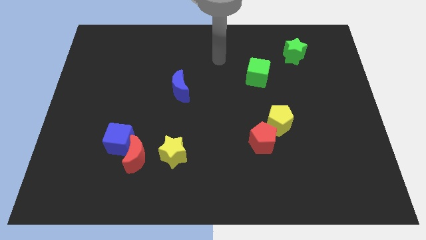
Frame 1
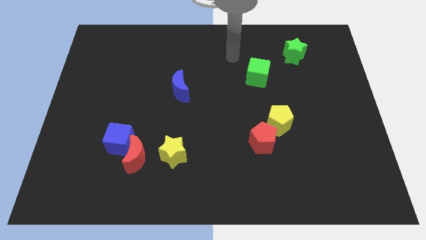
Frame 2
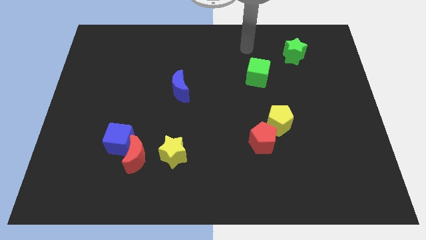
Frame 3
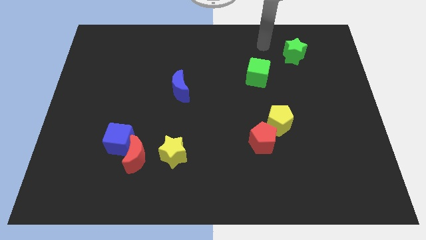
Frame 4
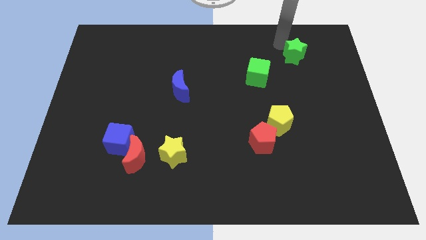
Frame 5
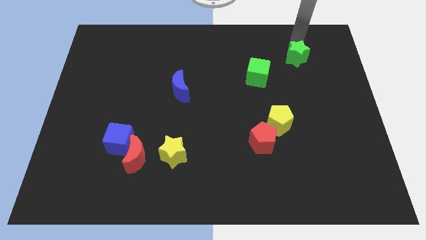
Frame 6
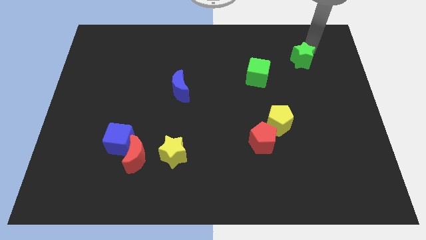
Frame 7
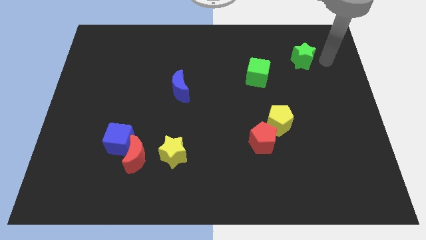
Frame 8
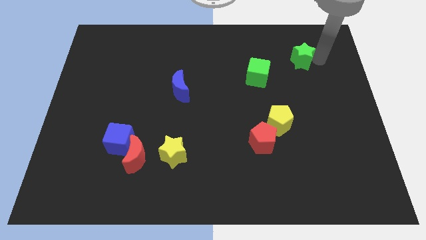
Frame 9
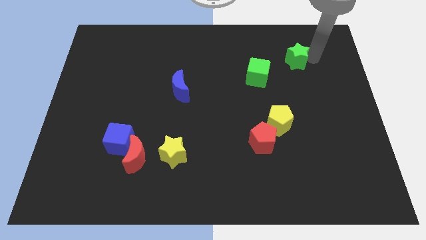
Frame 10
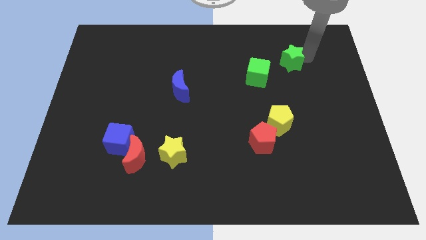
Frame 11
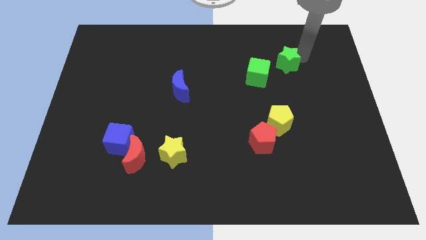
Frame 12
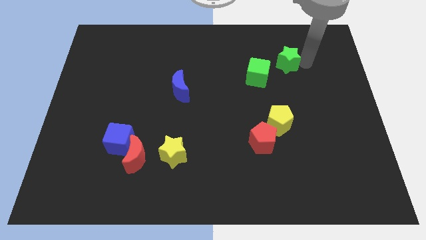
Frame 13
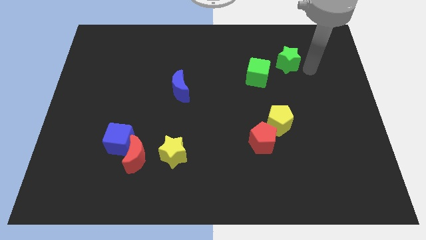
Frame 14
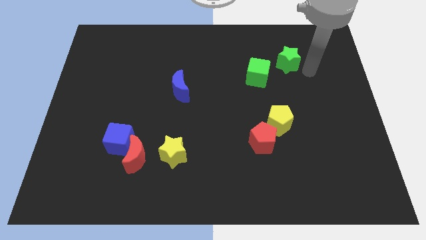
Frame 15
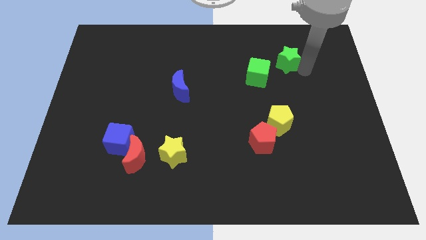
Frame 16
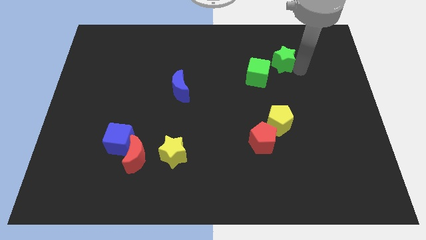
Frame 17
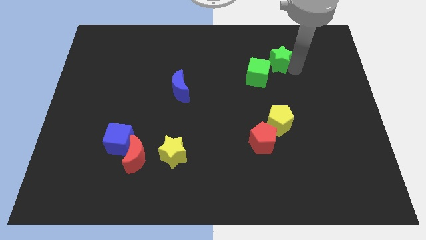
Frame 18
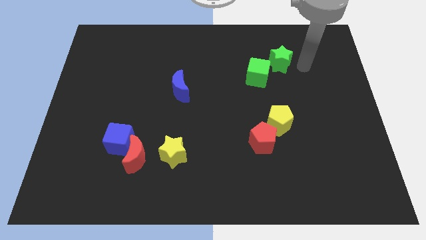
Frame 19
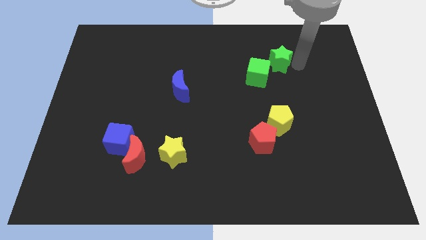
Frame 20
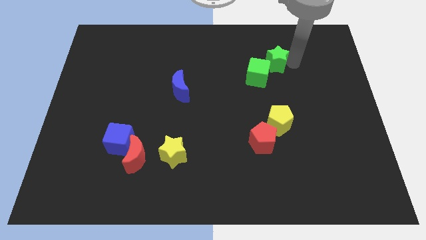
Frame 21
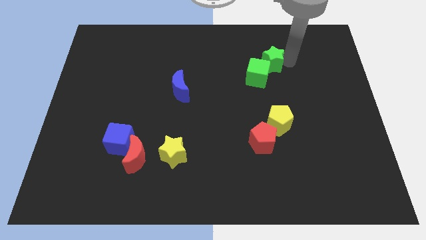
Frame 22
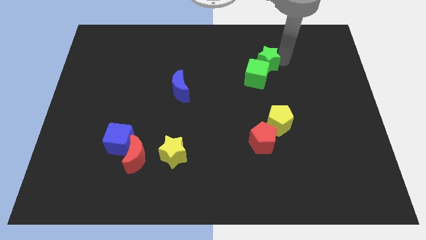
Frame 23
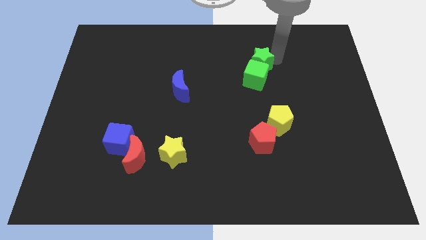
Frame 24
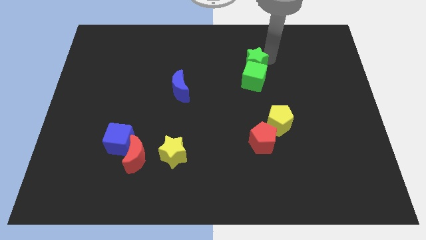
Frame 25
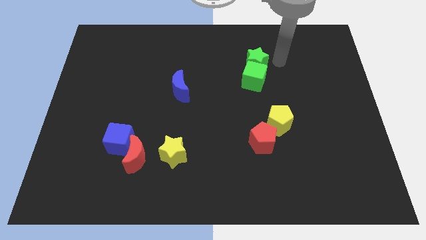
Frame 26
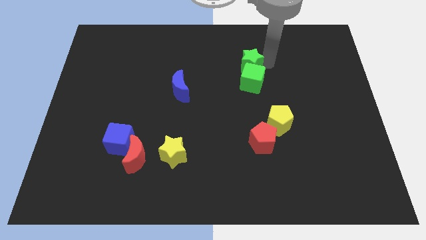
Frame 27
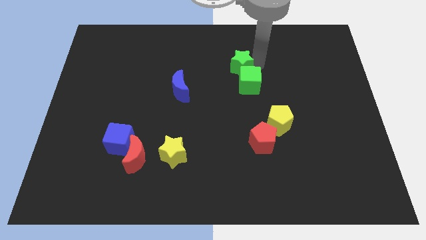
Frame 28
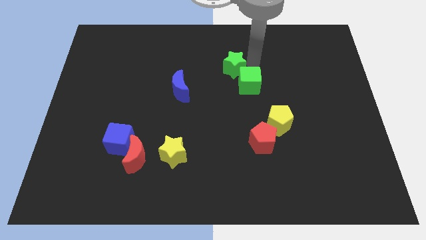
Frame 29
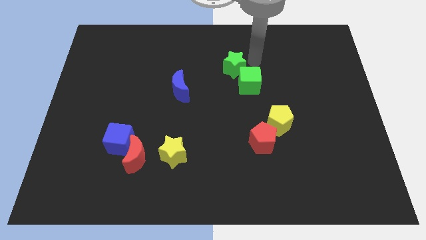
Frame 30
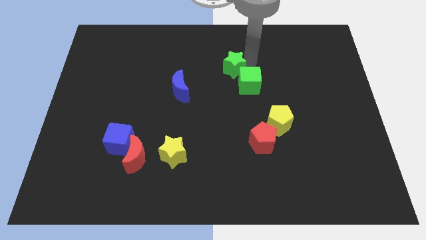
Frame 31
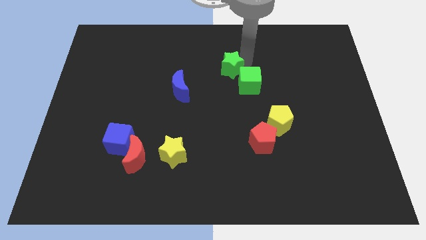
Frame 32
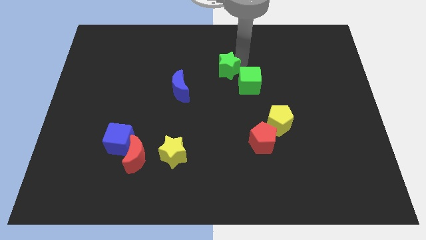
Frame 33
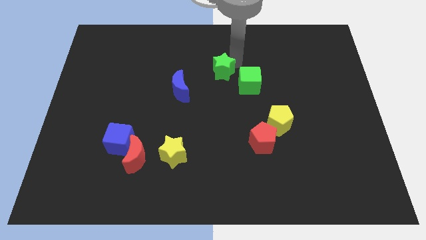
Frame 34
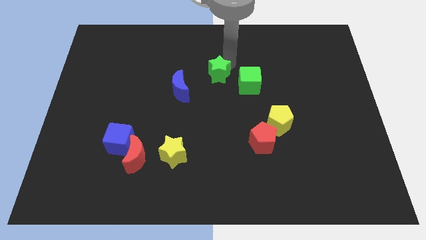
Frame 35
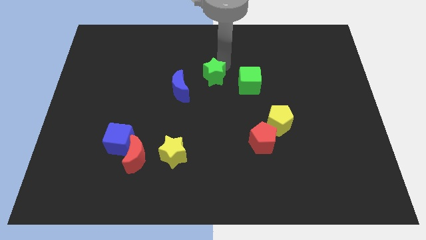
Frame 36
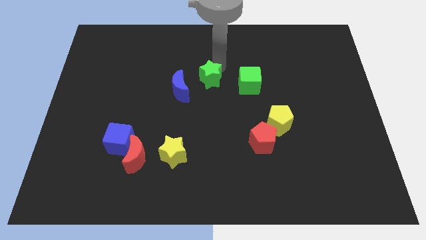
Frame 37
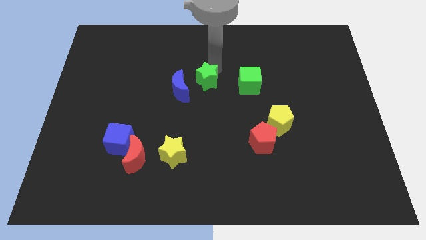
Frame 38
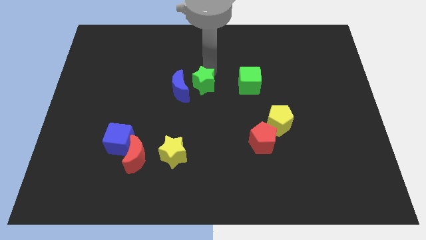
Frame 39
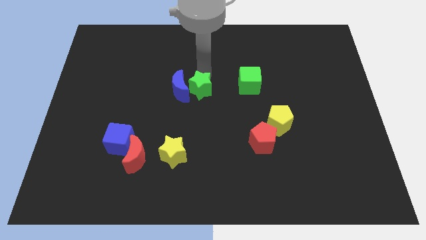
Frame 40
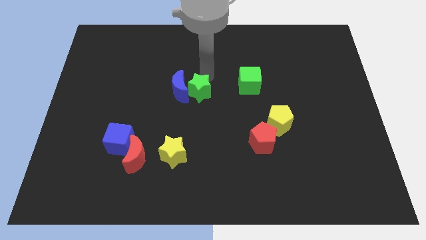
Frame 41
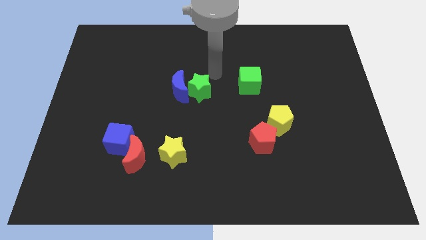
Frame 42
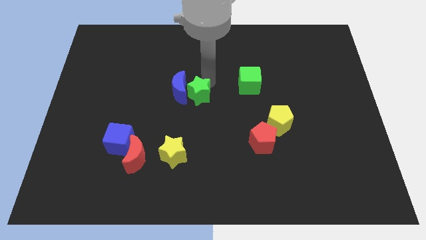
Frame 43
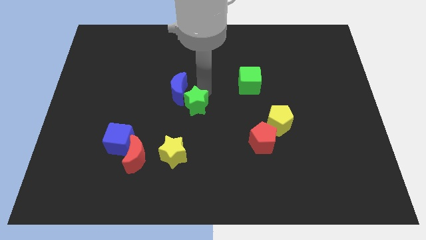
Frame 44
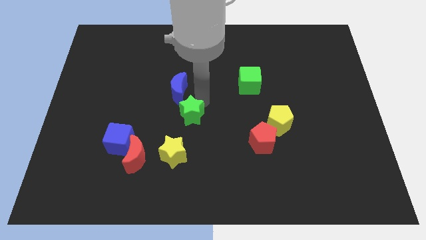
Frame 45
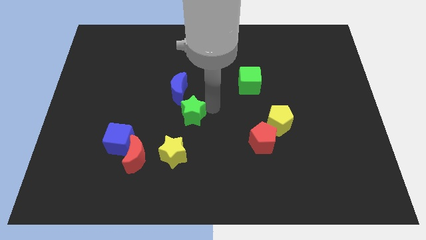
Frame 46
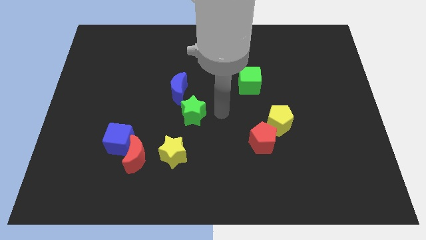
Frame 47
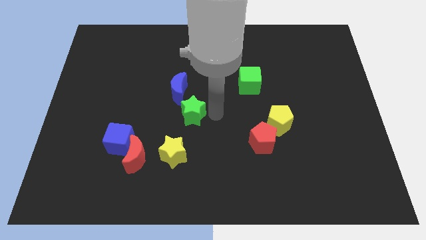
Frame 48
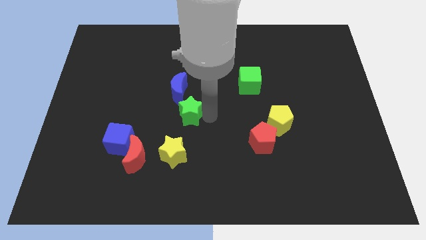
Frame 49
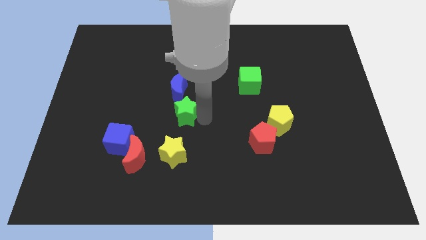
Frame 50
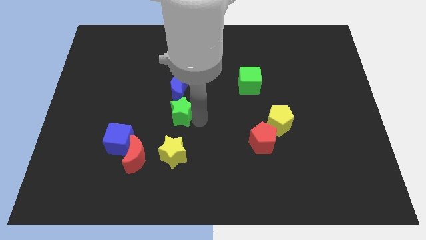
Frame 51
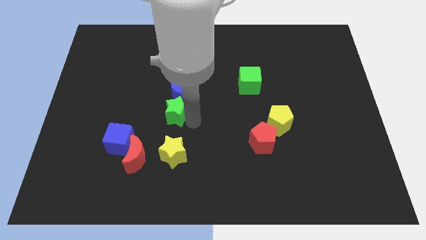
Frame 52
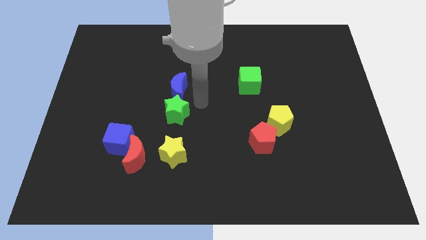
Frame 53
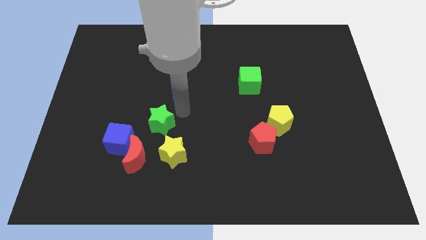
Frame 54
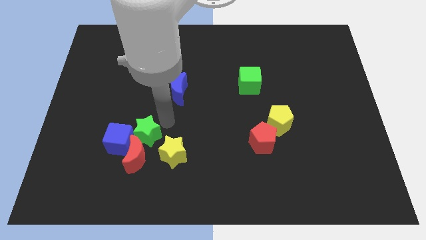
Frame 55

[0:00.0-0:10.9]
move the green star towards the blue cube

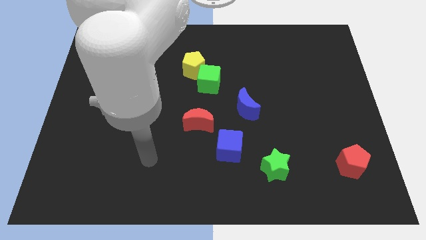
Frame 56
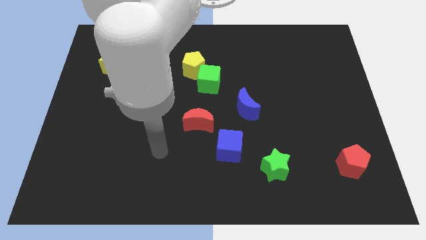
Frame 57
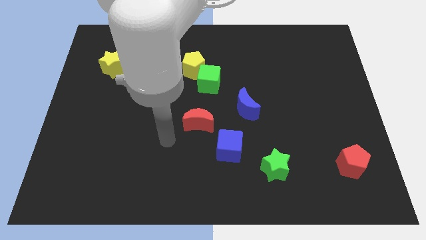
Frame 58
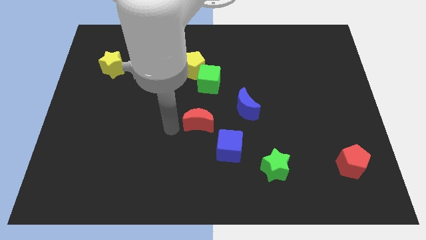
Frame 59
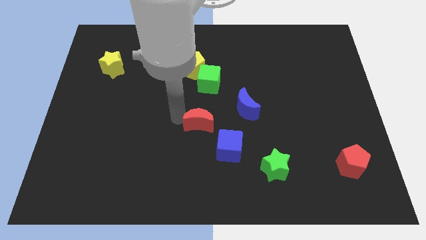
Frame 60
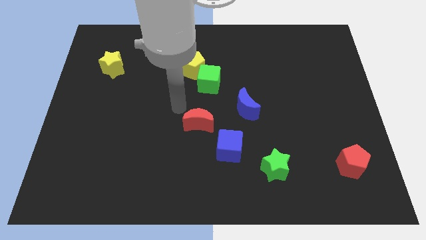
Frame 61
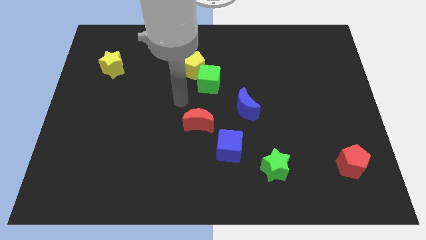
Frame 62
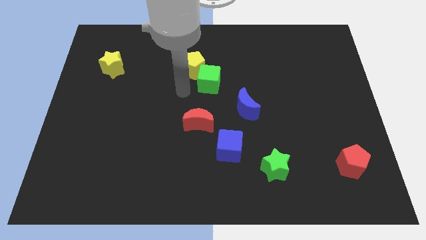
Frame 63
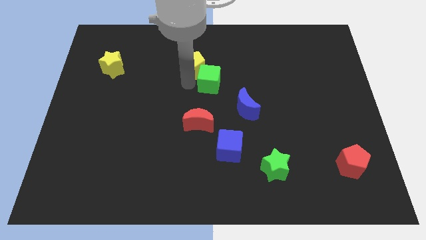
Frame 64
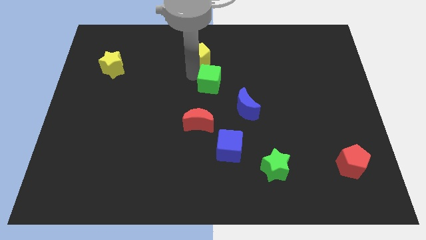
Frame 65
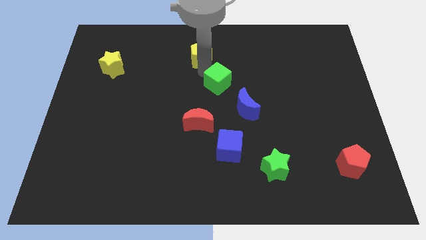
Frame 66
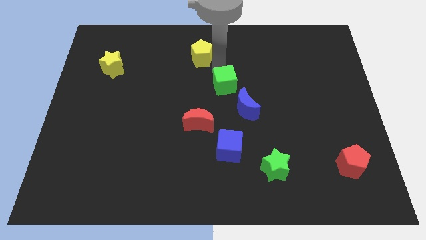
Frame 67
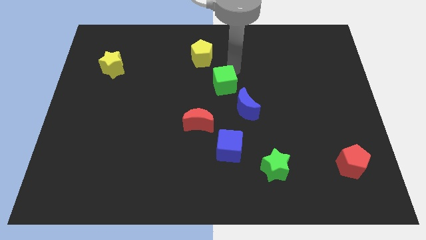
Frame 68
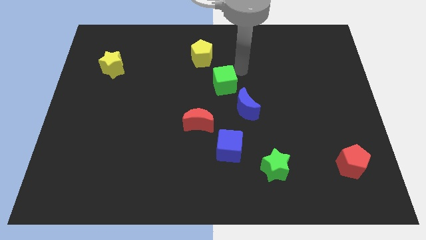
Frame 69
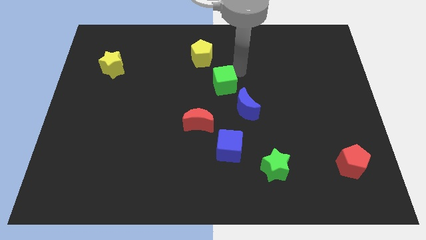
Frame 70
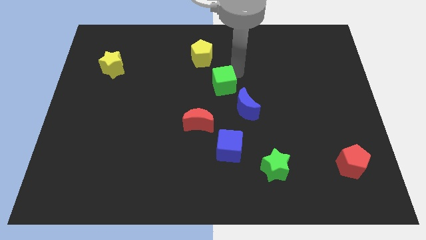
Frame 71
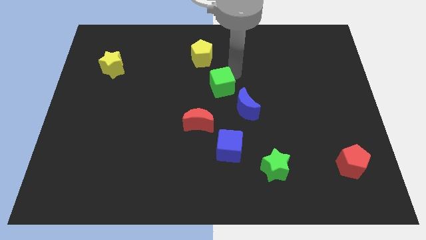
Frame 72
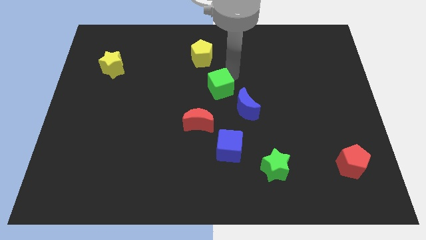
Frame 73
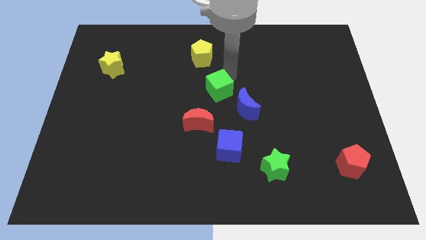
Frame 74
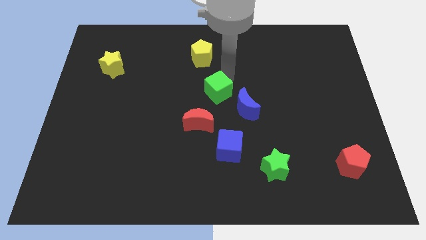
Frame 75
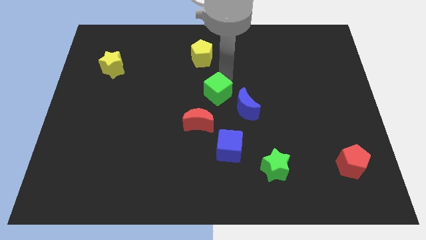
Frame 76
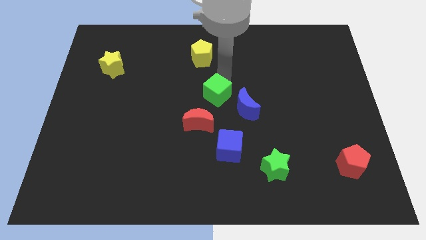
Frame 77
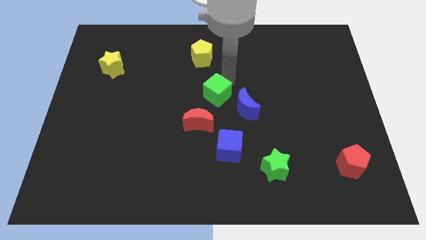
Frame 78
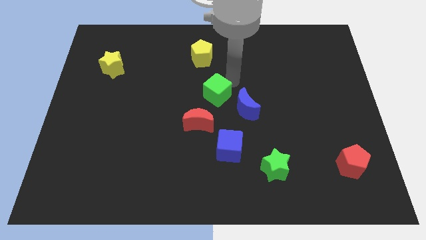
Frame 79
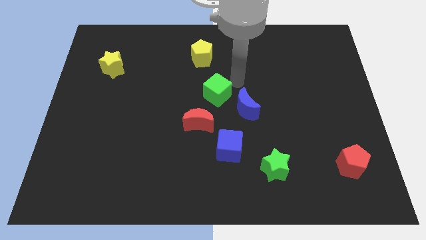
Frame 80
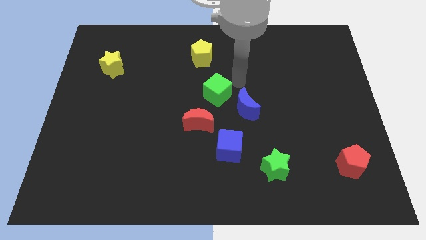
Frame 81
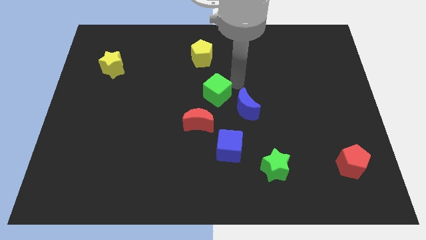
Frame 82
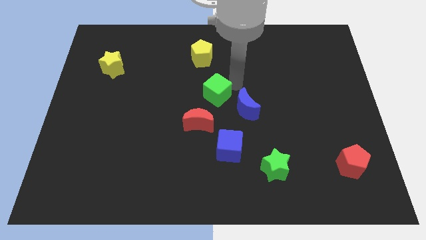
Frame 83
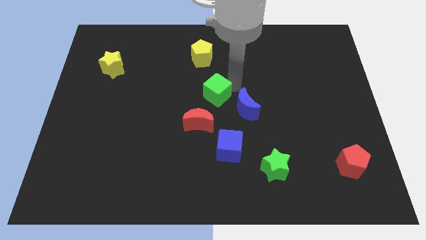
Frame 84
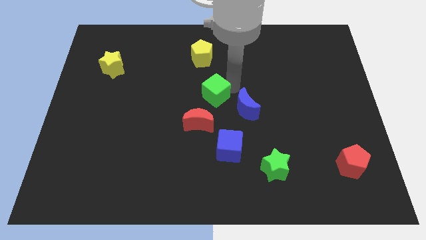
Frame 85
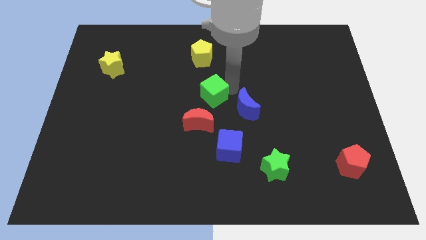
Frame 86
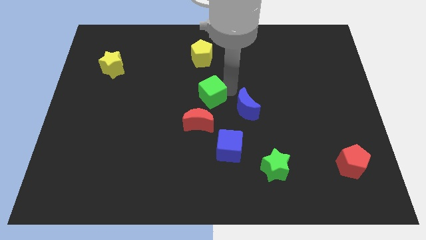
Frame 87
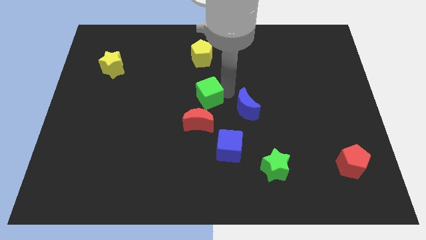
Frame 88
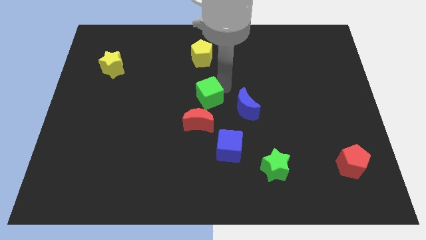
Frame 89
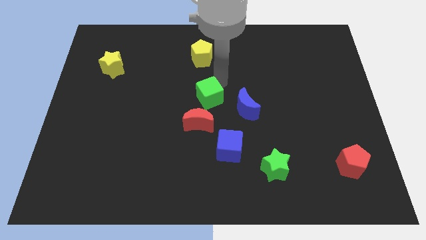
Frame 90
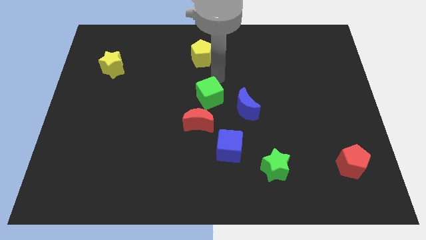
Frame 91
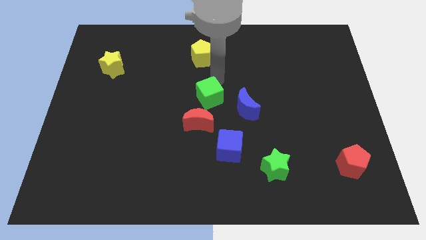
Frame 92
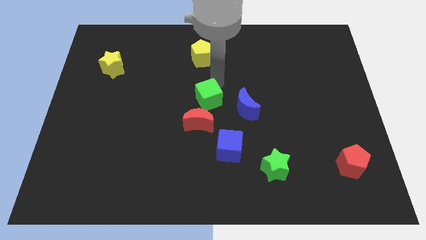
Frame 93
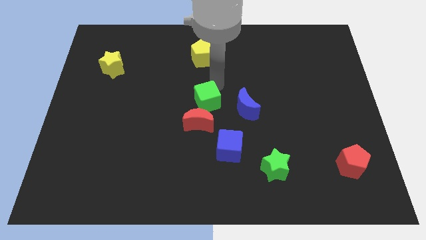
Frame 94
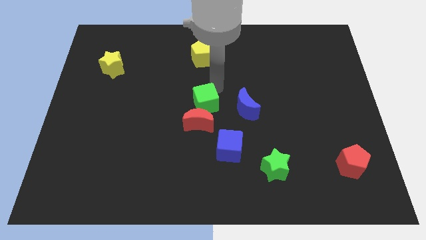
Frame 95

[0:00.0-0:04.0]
slide the green cube close to the red moon
